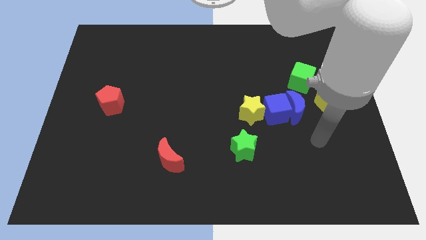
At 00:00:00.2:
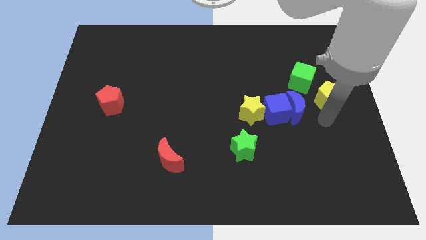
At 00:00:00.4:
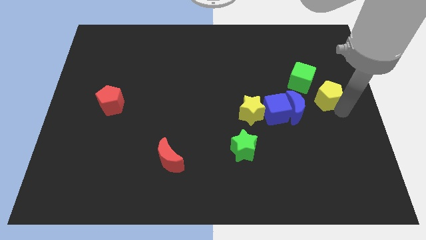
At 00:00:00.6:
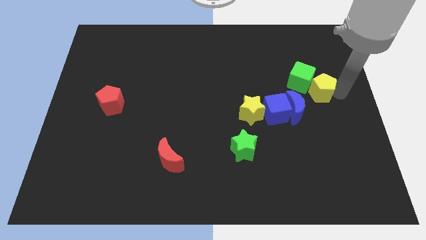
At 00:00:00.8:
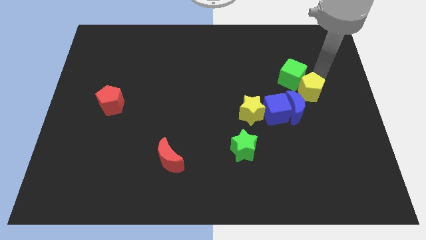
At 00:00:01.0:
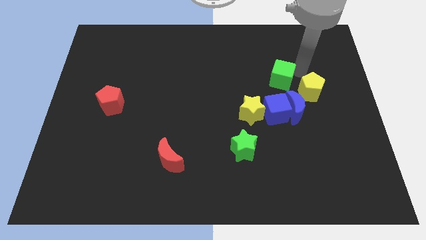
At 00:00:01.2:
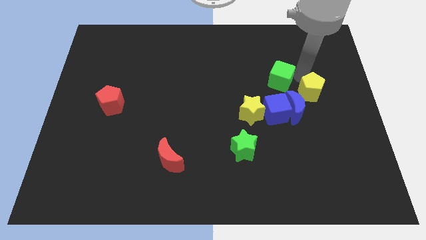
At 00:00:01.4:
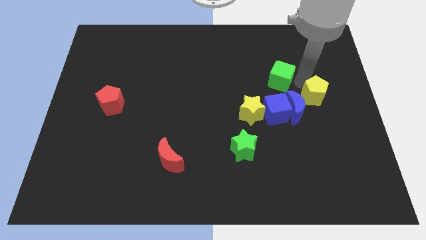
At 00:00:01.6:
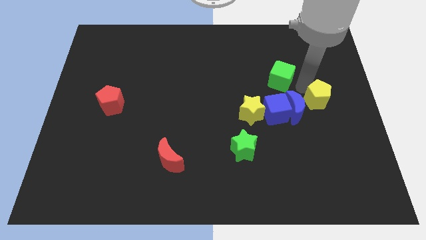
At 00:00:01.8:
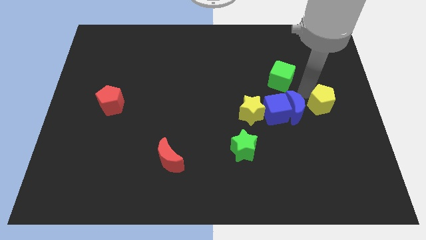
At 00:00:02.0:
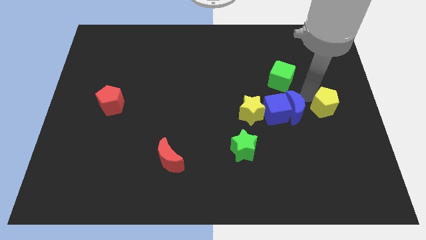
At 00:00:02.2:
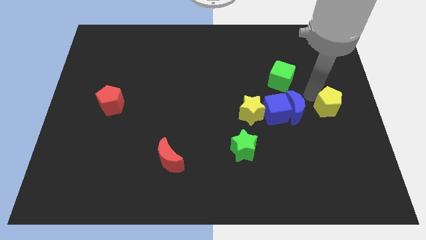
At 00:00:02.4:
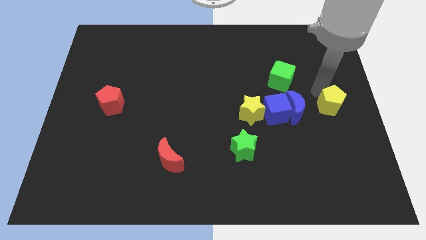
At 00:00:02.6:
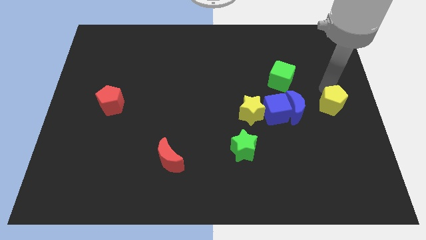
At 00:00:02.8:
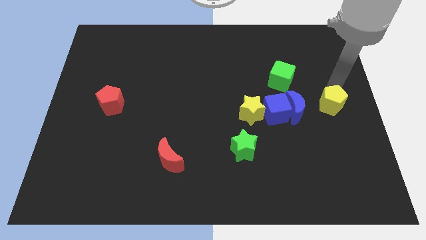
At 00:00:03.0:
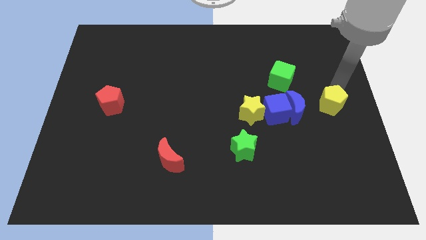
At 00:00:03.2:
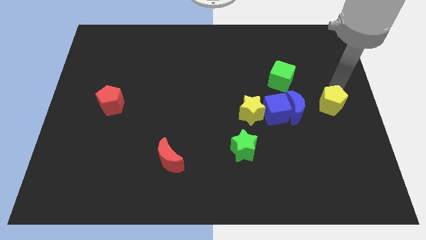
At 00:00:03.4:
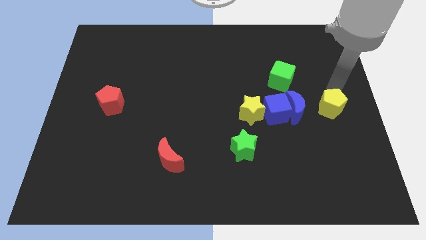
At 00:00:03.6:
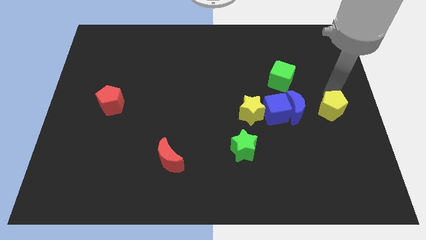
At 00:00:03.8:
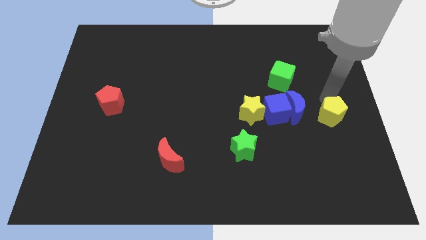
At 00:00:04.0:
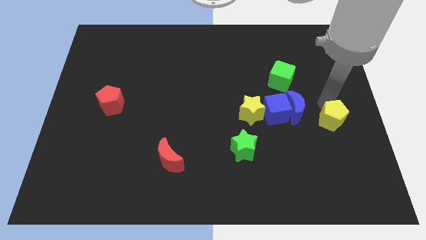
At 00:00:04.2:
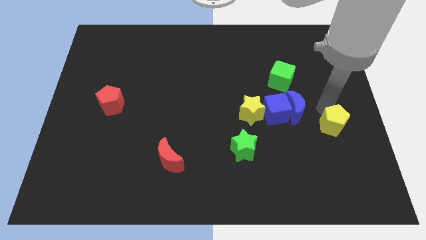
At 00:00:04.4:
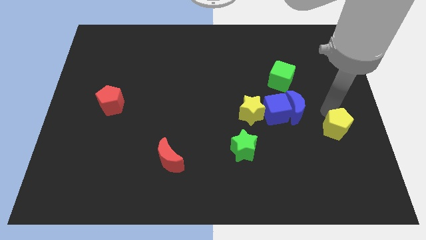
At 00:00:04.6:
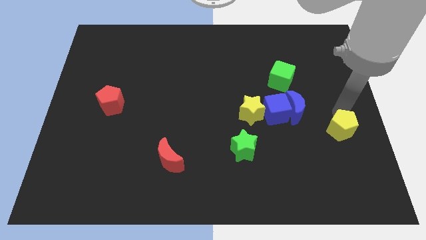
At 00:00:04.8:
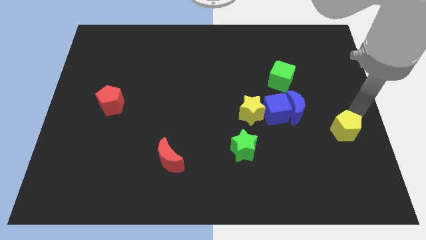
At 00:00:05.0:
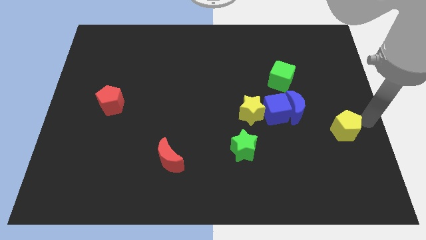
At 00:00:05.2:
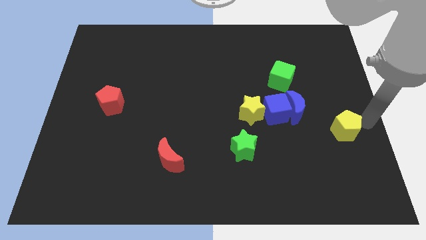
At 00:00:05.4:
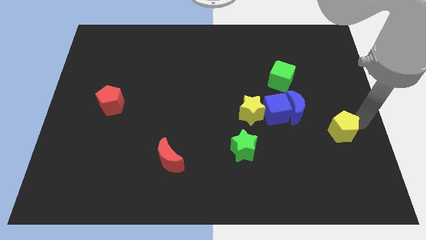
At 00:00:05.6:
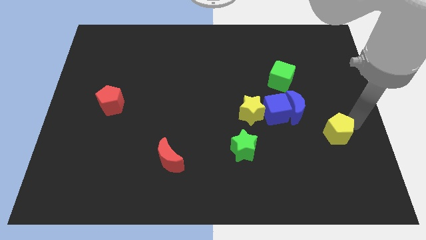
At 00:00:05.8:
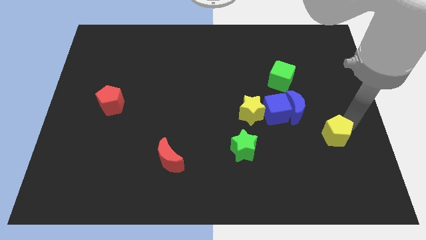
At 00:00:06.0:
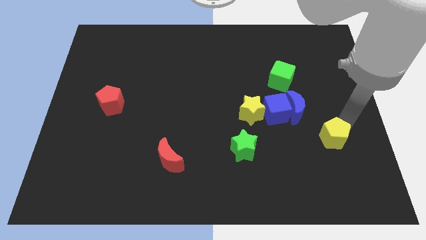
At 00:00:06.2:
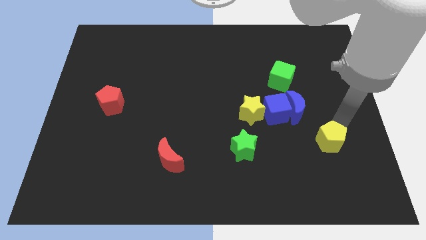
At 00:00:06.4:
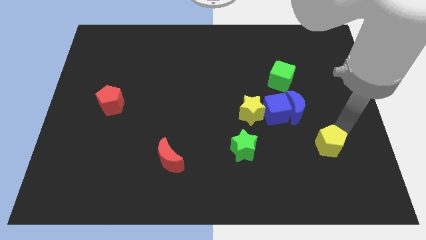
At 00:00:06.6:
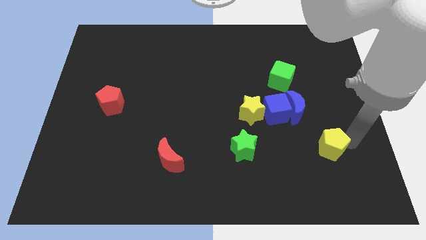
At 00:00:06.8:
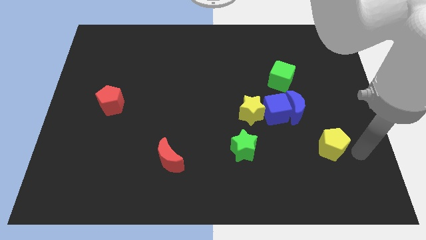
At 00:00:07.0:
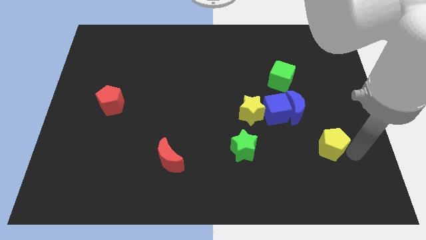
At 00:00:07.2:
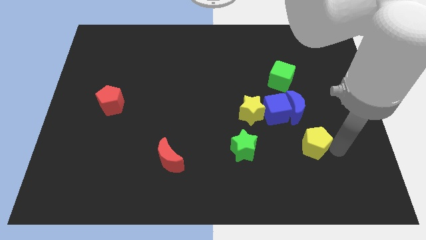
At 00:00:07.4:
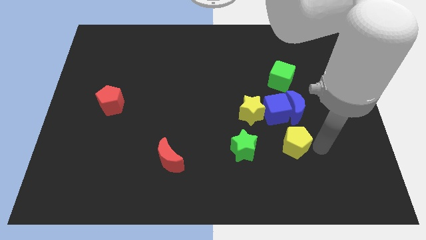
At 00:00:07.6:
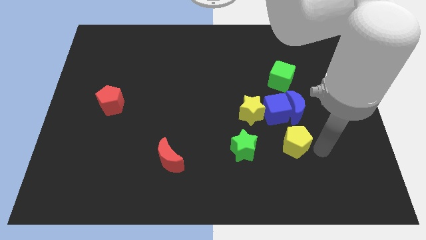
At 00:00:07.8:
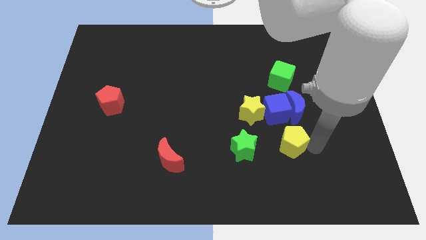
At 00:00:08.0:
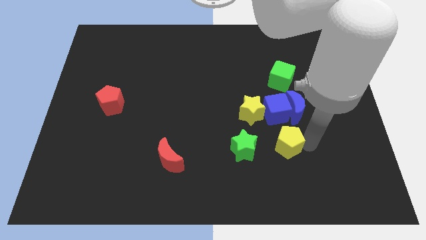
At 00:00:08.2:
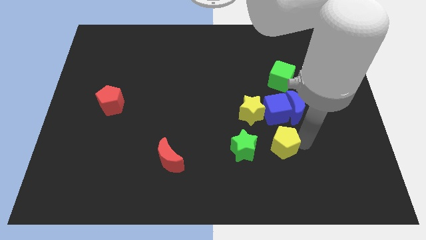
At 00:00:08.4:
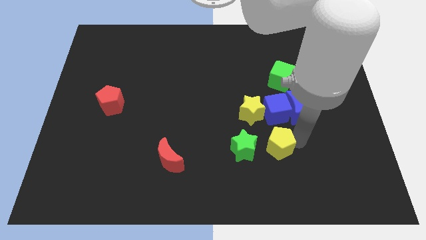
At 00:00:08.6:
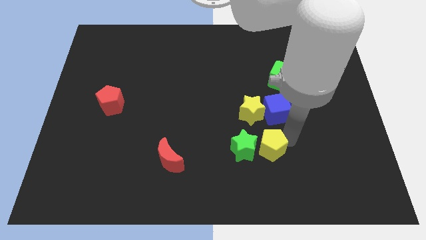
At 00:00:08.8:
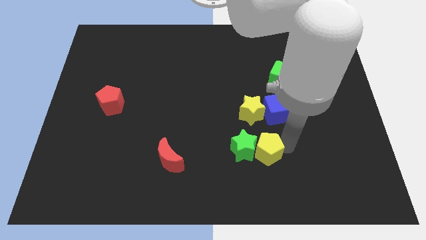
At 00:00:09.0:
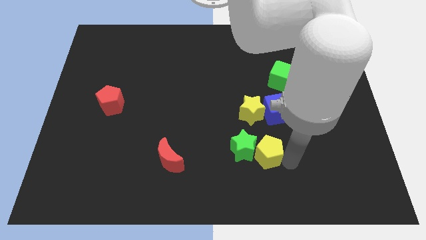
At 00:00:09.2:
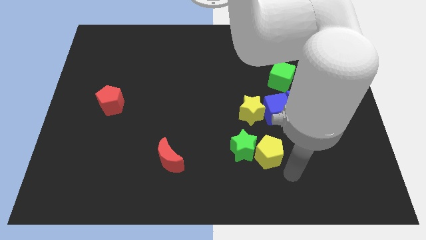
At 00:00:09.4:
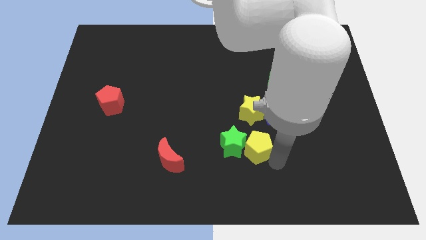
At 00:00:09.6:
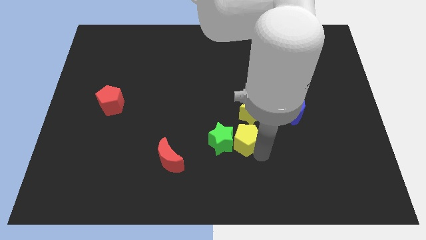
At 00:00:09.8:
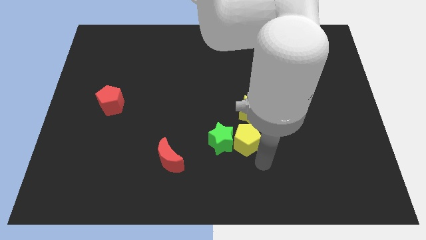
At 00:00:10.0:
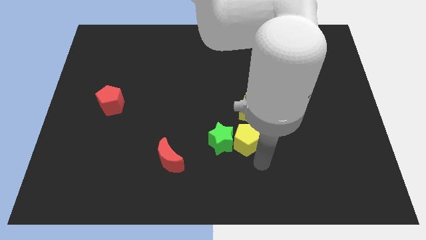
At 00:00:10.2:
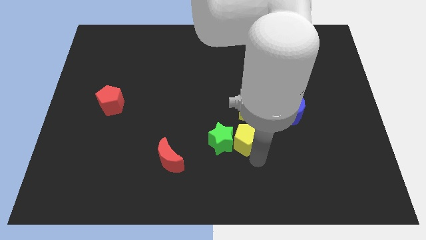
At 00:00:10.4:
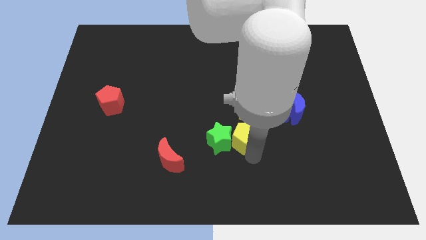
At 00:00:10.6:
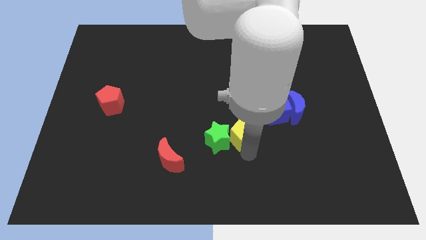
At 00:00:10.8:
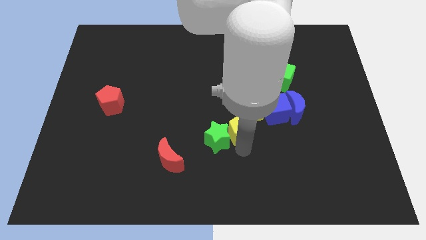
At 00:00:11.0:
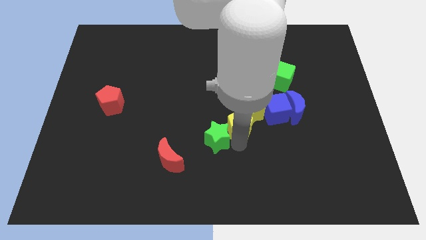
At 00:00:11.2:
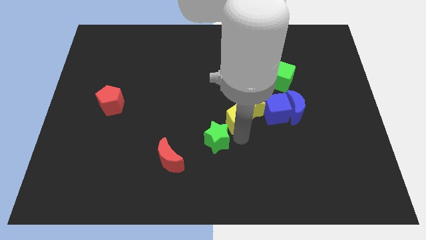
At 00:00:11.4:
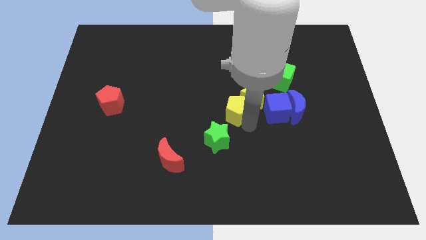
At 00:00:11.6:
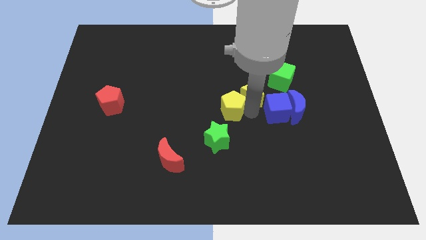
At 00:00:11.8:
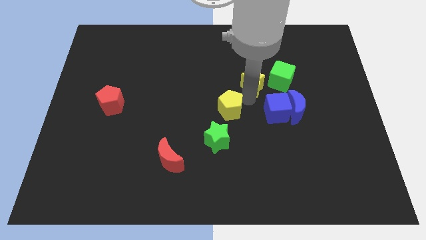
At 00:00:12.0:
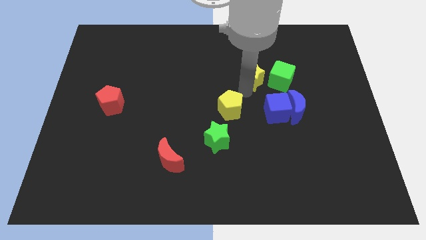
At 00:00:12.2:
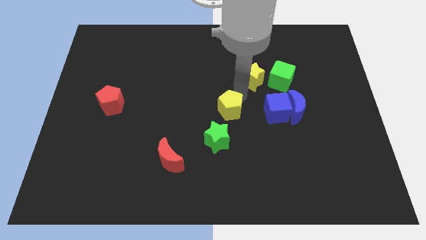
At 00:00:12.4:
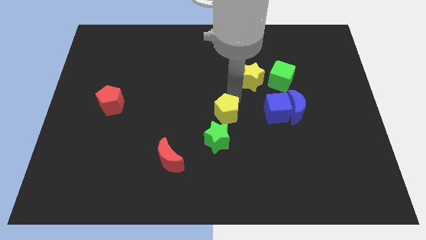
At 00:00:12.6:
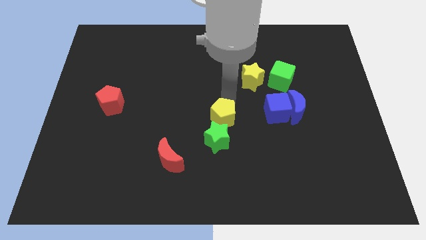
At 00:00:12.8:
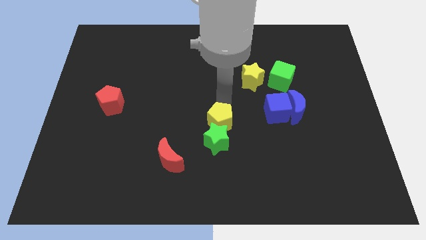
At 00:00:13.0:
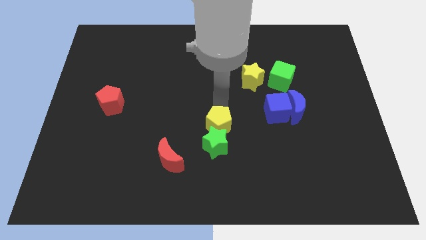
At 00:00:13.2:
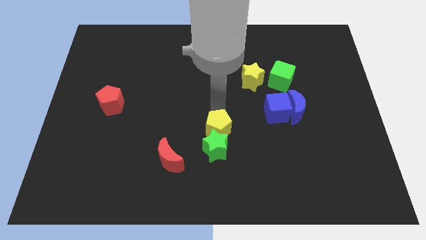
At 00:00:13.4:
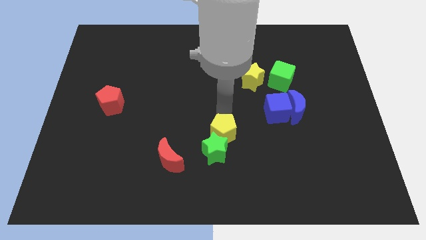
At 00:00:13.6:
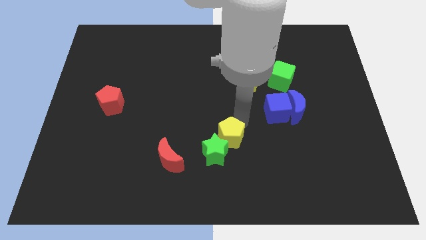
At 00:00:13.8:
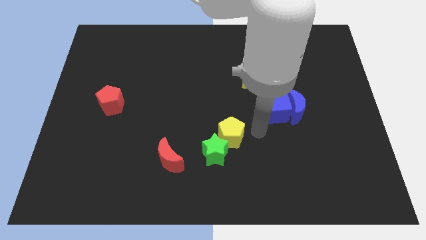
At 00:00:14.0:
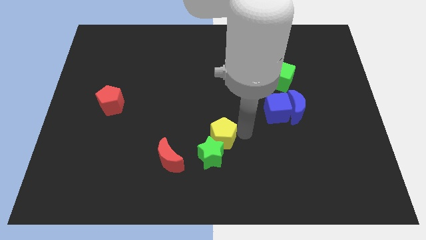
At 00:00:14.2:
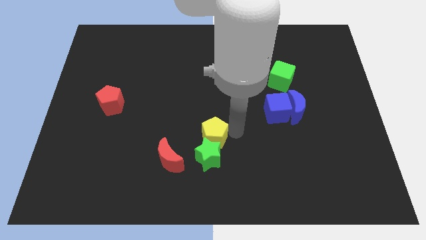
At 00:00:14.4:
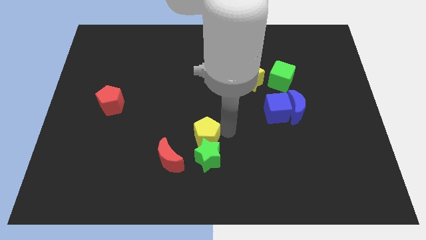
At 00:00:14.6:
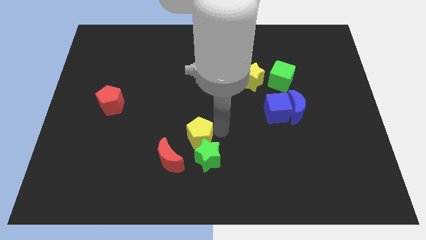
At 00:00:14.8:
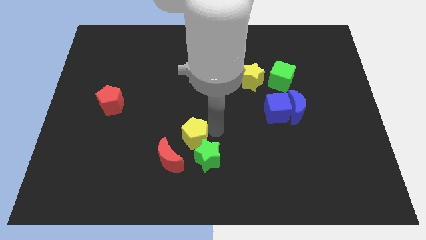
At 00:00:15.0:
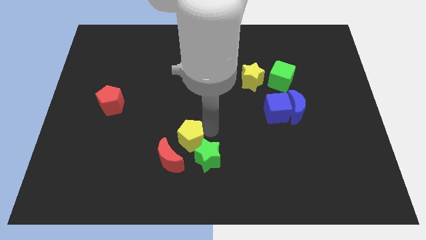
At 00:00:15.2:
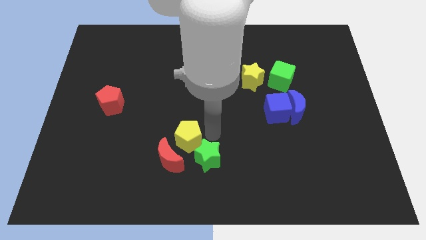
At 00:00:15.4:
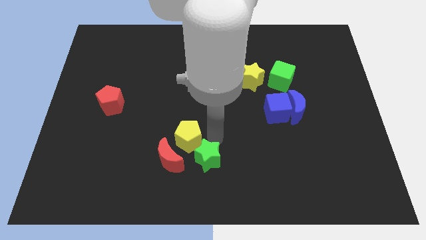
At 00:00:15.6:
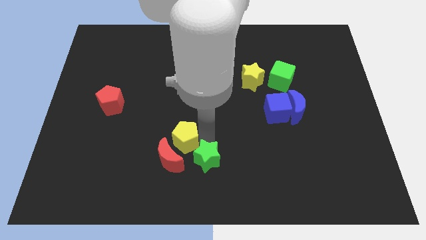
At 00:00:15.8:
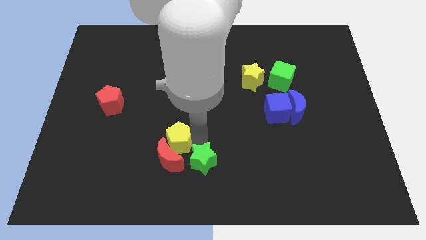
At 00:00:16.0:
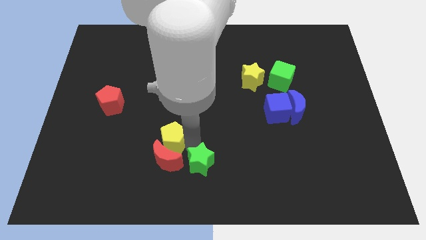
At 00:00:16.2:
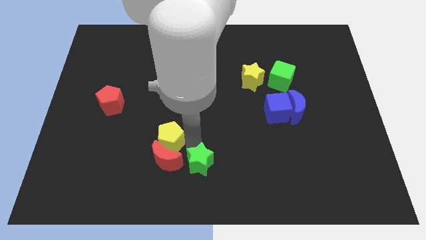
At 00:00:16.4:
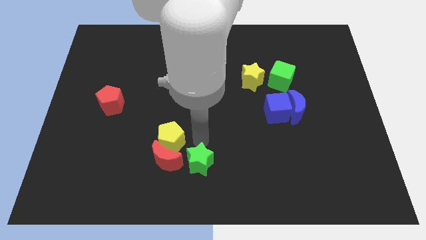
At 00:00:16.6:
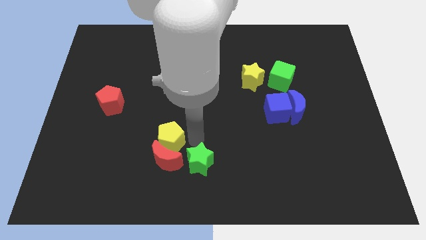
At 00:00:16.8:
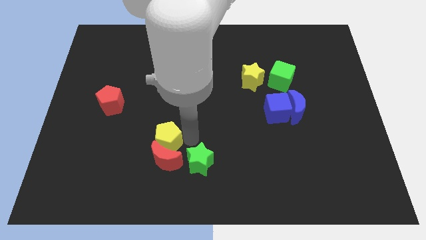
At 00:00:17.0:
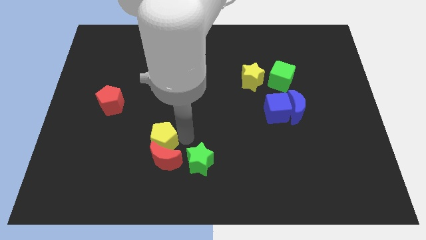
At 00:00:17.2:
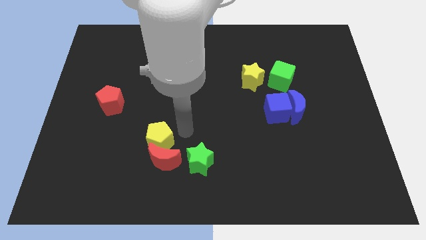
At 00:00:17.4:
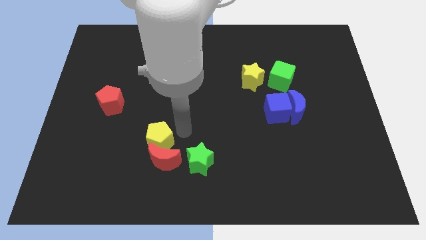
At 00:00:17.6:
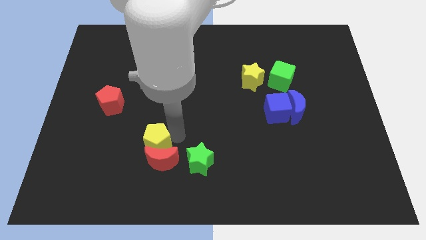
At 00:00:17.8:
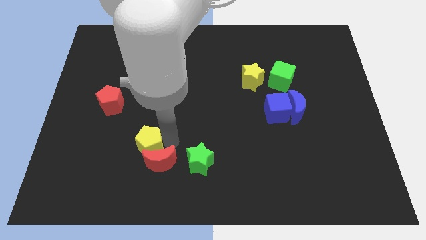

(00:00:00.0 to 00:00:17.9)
slide the yellow pentagon to the left side of the red moon
